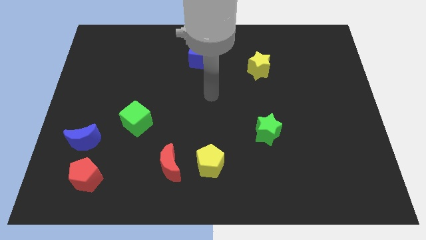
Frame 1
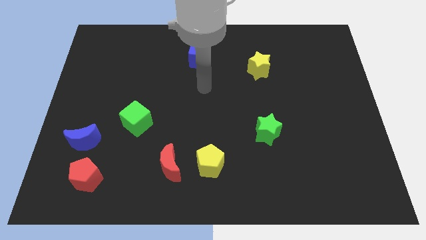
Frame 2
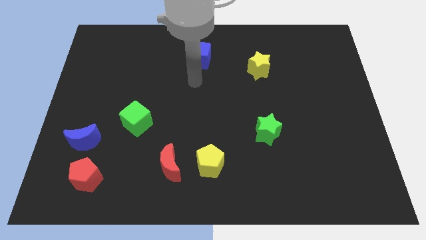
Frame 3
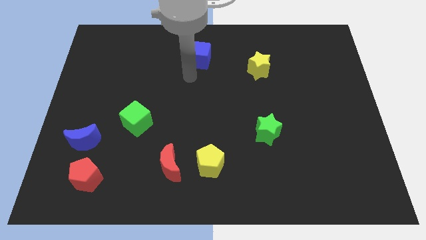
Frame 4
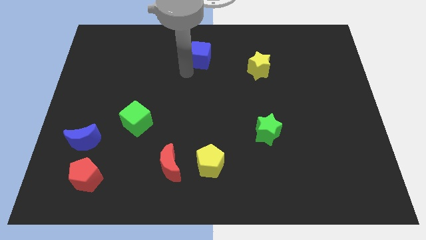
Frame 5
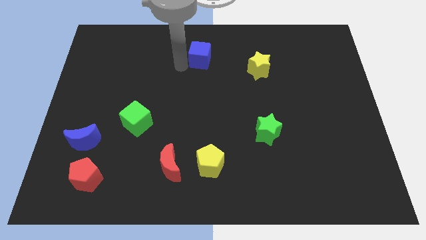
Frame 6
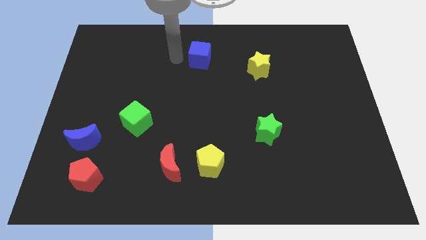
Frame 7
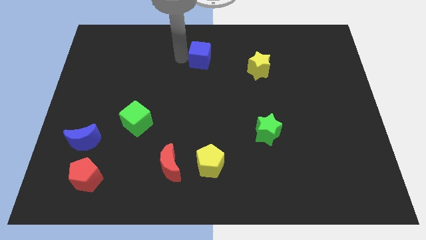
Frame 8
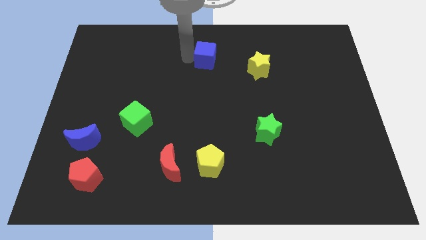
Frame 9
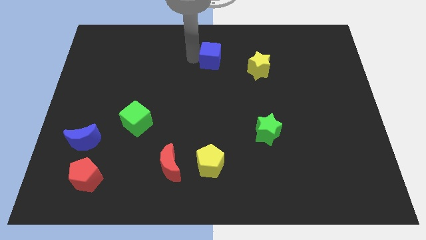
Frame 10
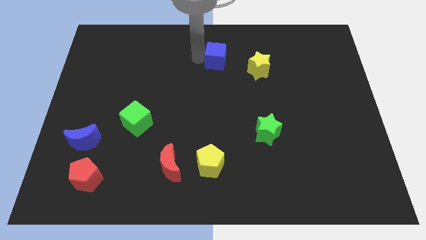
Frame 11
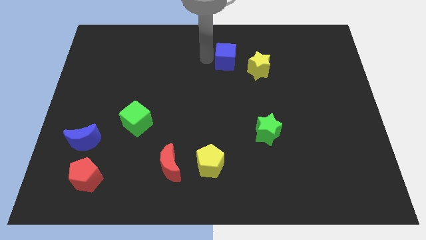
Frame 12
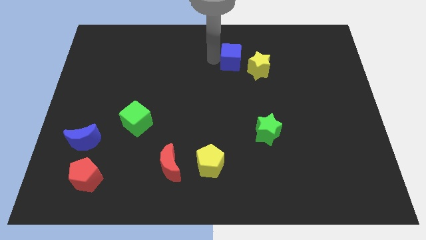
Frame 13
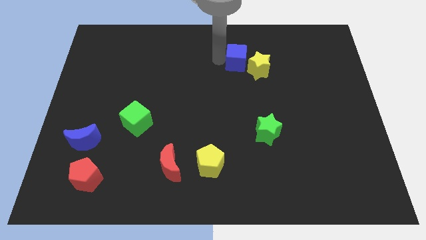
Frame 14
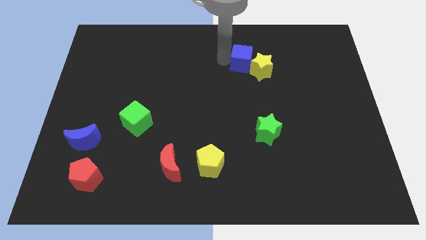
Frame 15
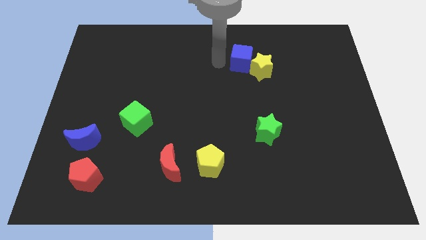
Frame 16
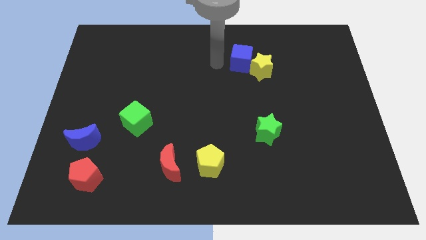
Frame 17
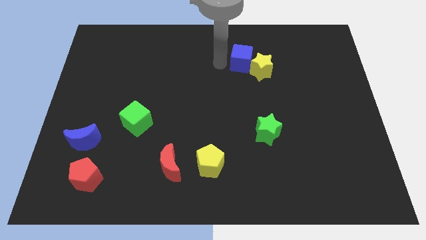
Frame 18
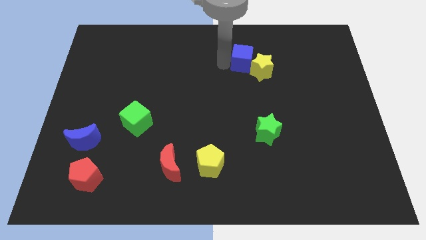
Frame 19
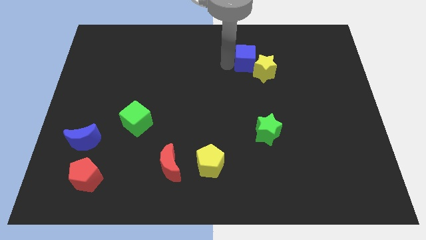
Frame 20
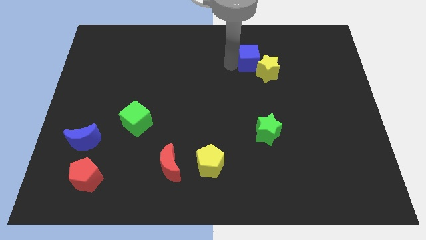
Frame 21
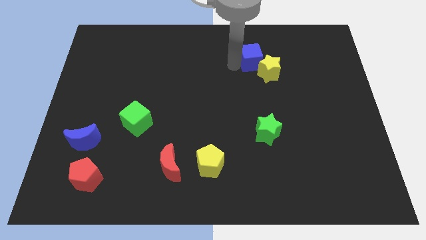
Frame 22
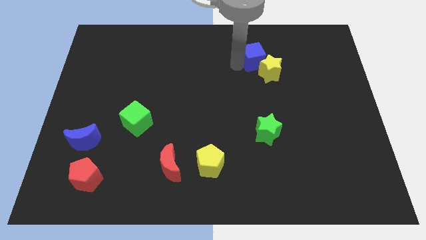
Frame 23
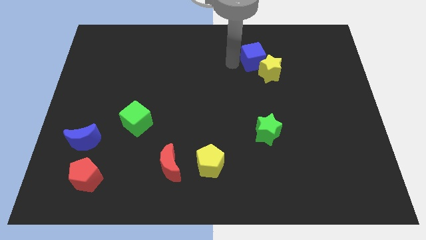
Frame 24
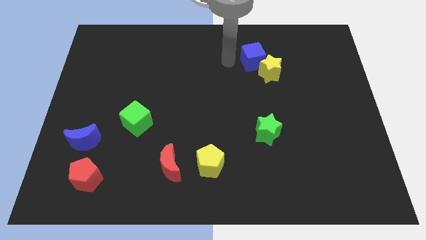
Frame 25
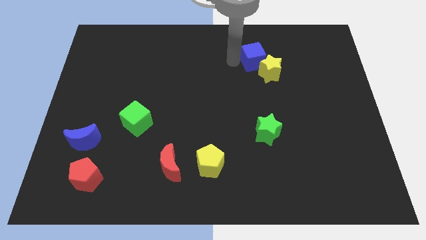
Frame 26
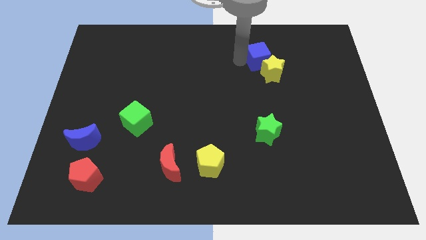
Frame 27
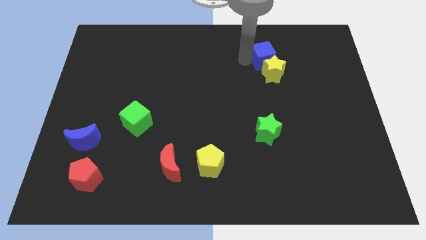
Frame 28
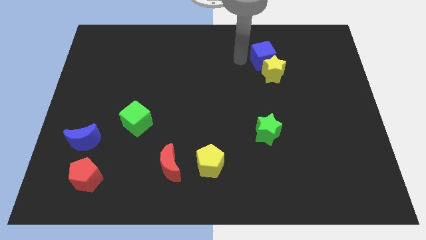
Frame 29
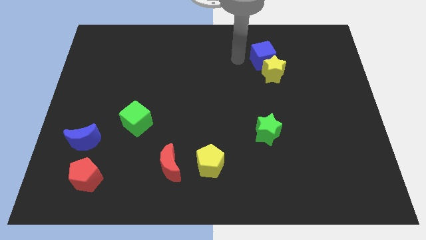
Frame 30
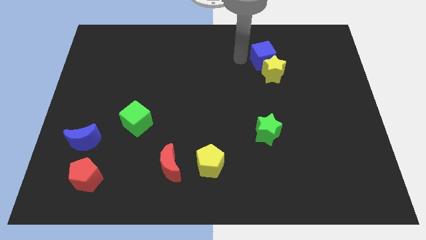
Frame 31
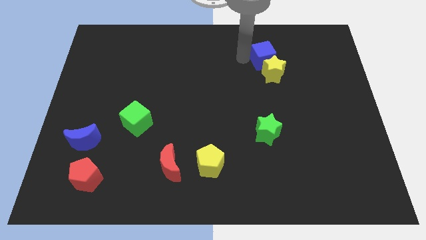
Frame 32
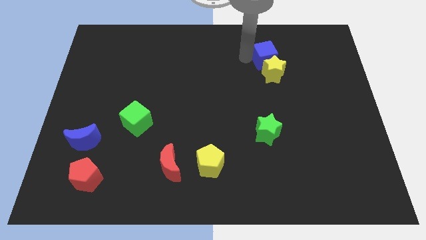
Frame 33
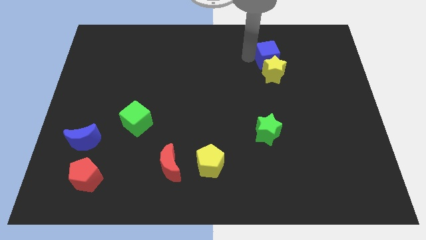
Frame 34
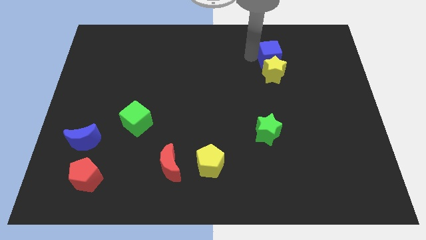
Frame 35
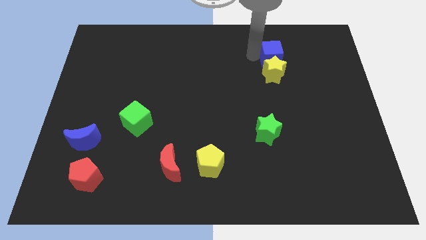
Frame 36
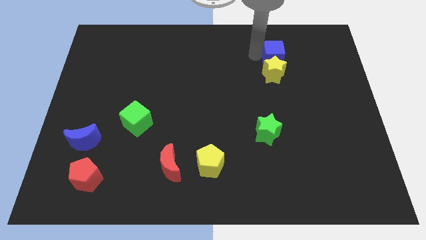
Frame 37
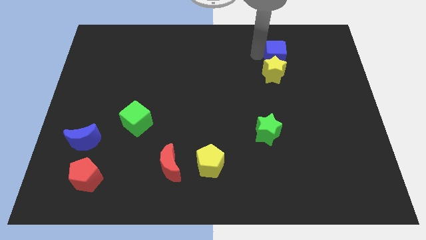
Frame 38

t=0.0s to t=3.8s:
move the blue cube right

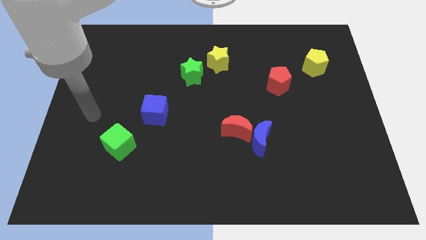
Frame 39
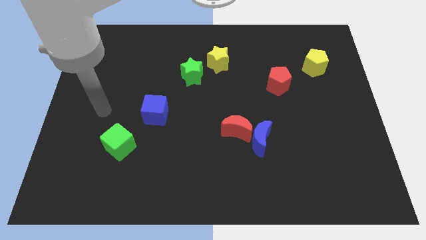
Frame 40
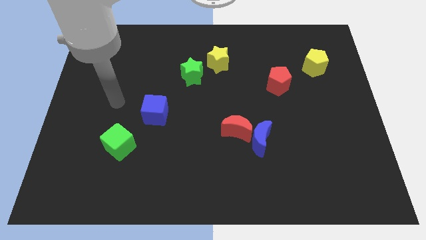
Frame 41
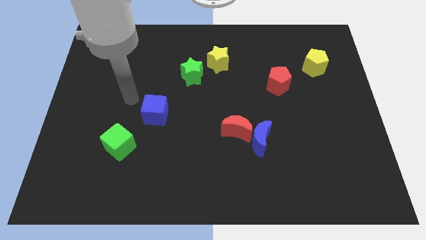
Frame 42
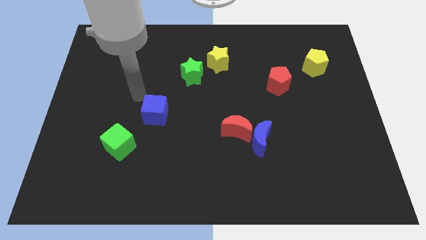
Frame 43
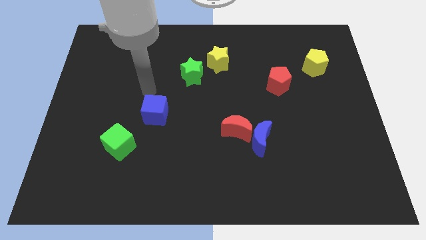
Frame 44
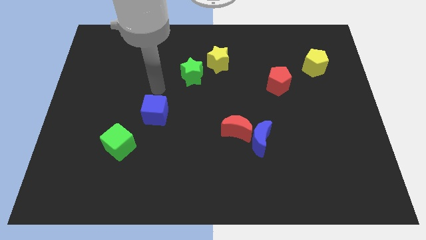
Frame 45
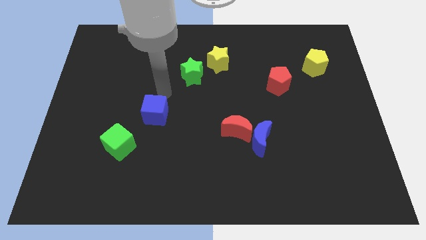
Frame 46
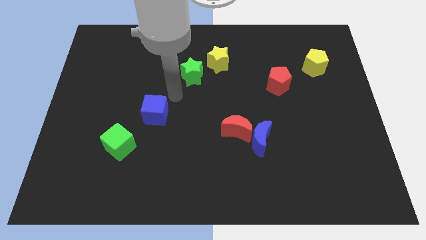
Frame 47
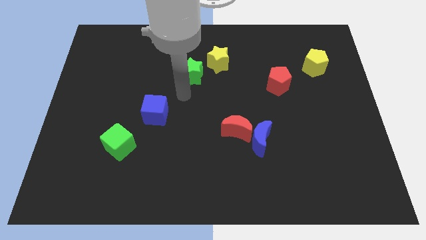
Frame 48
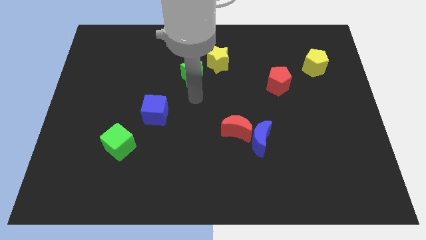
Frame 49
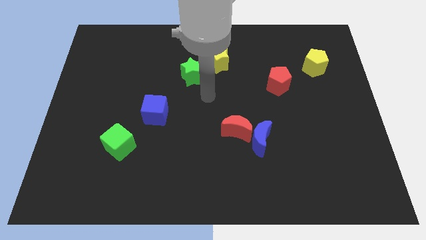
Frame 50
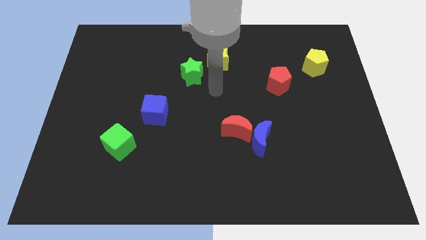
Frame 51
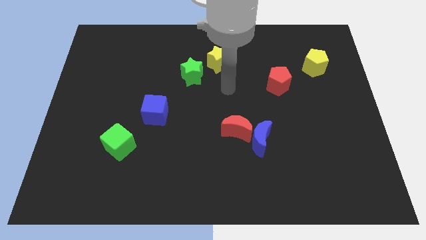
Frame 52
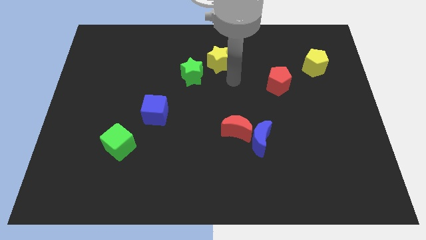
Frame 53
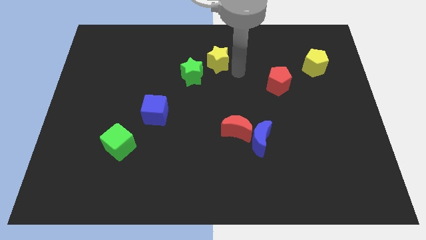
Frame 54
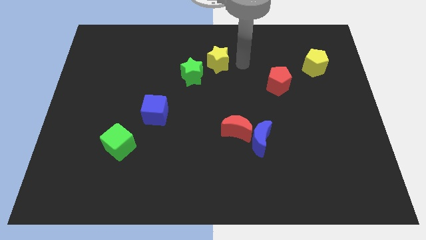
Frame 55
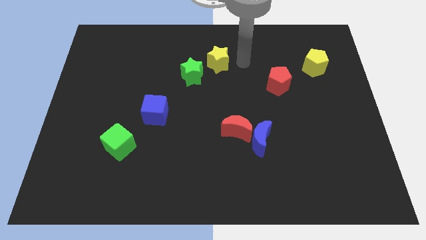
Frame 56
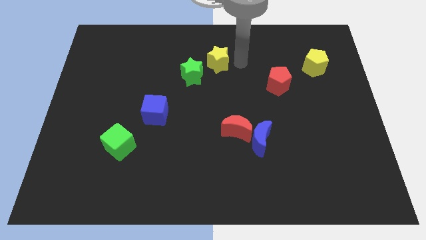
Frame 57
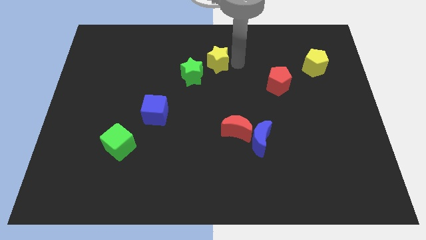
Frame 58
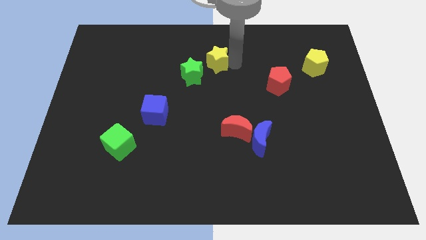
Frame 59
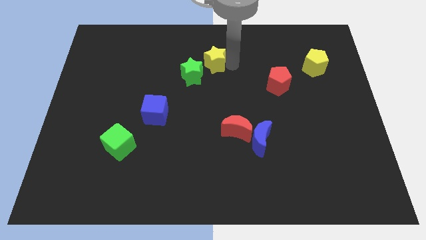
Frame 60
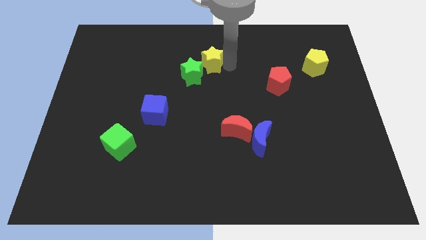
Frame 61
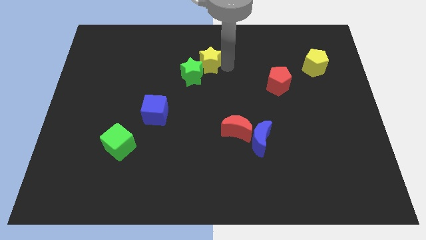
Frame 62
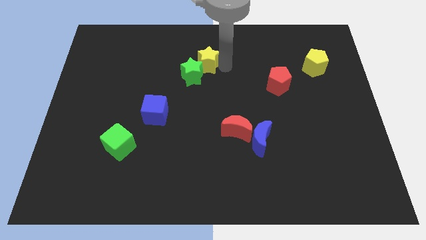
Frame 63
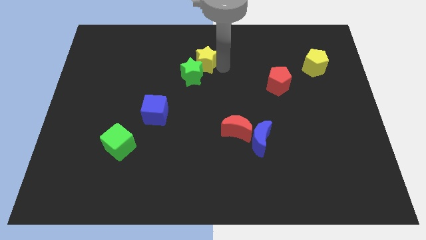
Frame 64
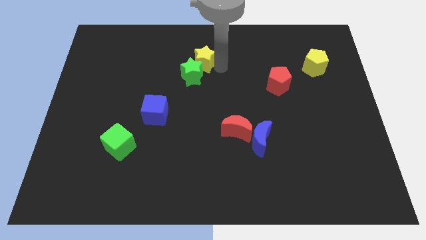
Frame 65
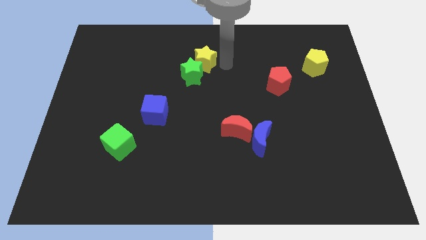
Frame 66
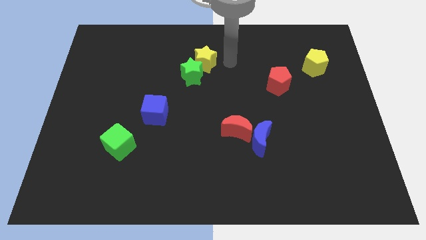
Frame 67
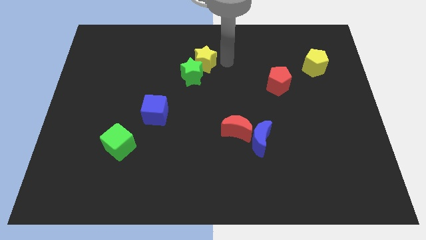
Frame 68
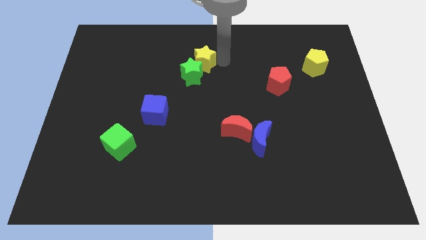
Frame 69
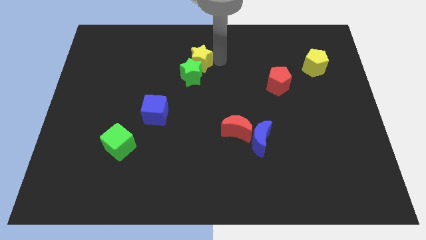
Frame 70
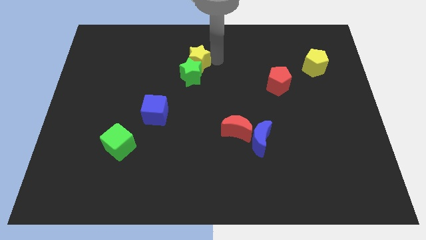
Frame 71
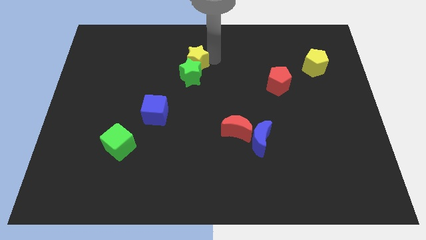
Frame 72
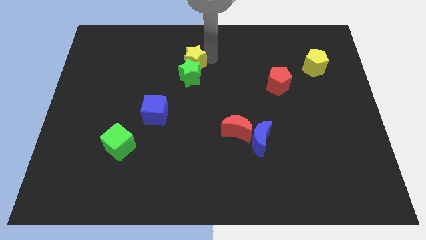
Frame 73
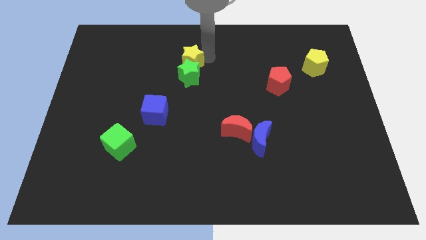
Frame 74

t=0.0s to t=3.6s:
slightly slide the yellow star left

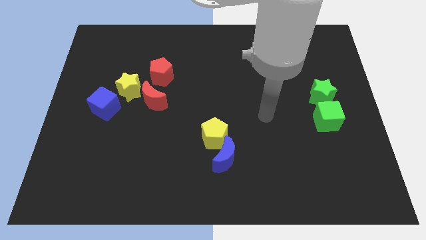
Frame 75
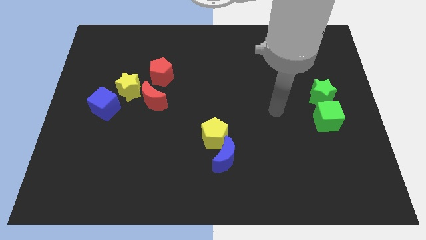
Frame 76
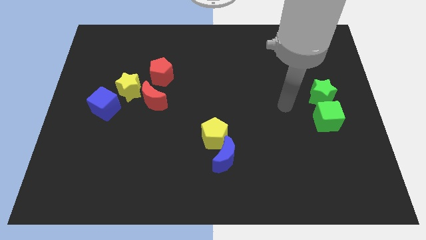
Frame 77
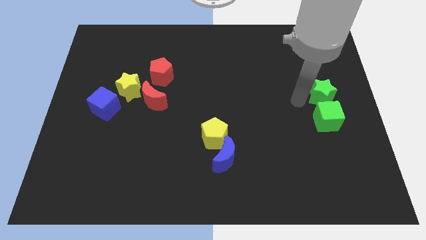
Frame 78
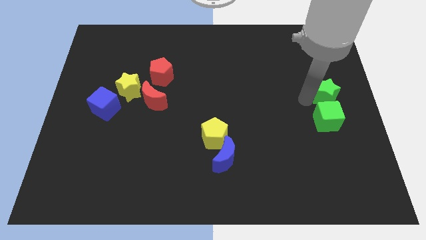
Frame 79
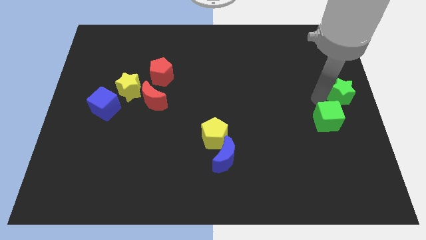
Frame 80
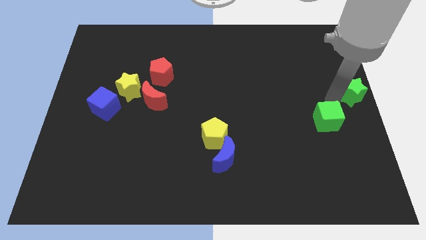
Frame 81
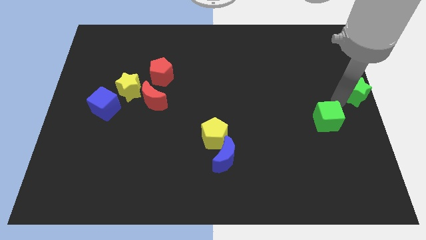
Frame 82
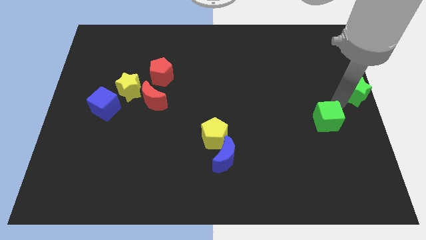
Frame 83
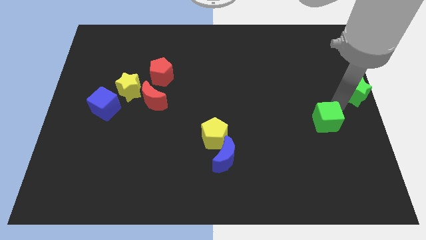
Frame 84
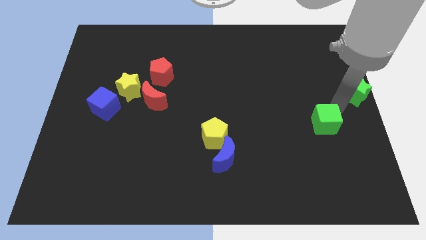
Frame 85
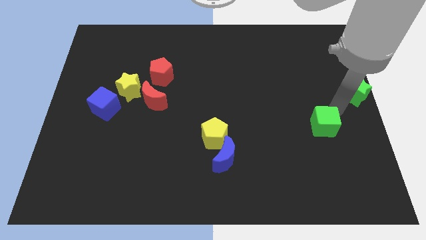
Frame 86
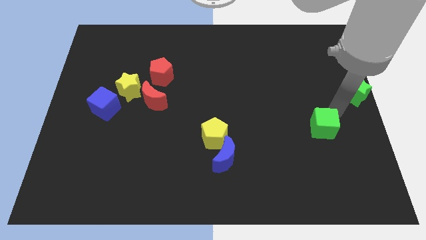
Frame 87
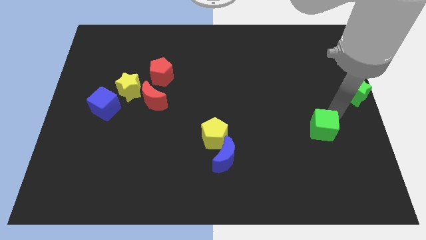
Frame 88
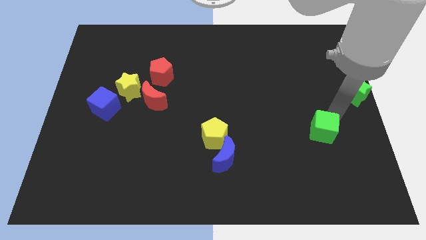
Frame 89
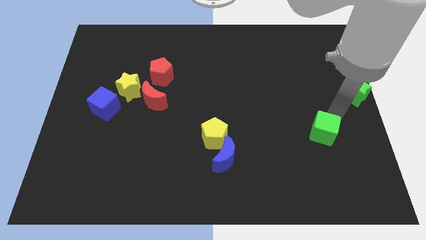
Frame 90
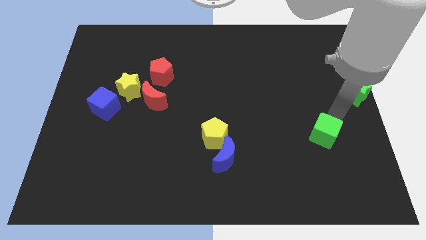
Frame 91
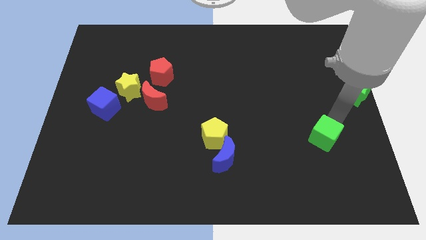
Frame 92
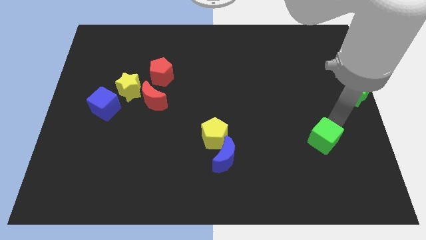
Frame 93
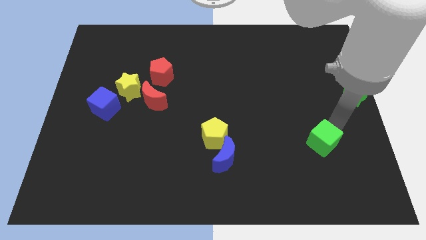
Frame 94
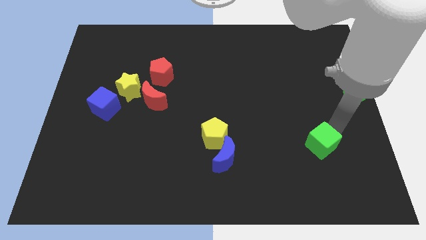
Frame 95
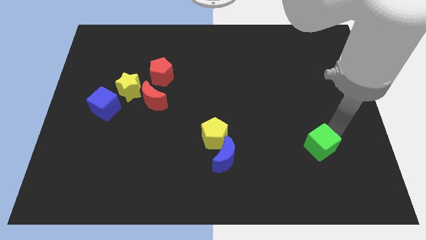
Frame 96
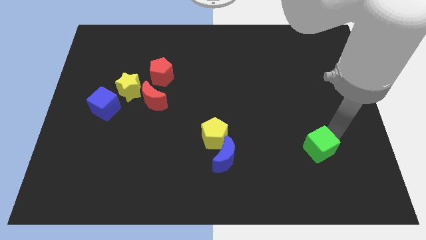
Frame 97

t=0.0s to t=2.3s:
move the green cube downwards and to the left a little
